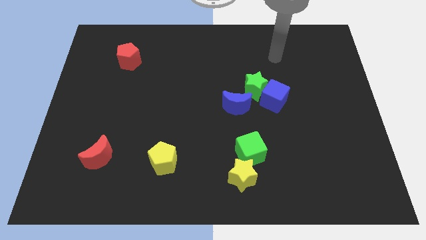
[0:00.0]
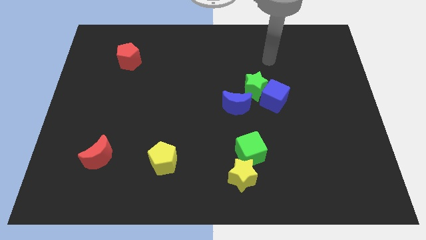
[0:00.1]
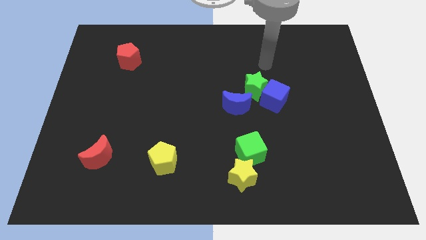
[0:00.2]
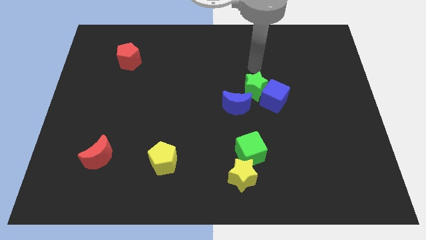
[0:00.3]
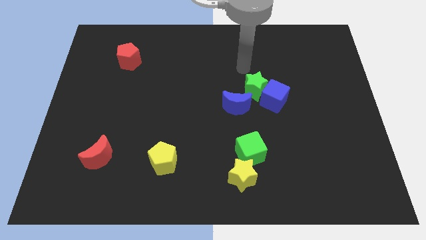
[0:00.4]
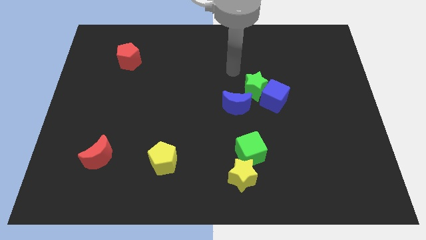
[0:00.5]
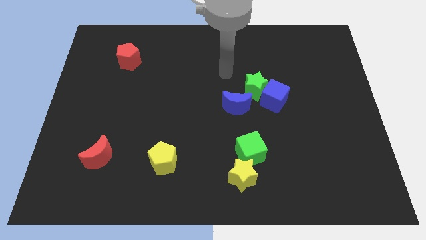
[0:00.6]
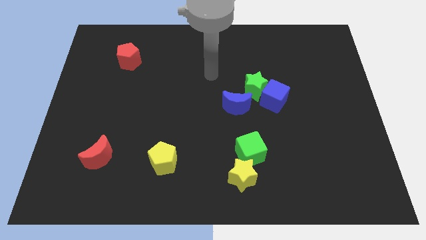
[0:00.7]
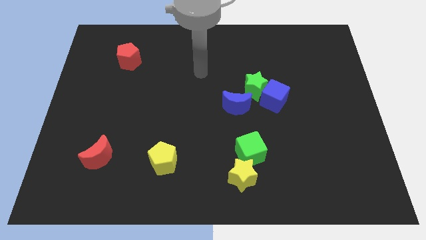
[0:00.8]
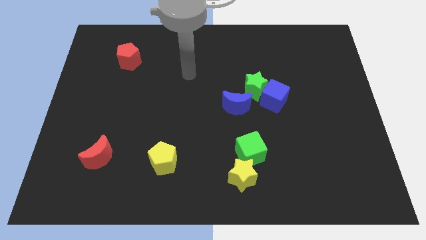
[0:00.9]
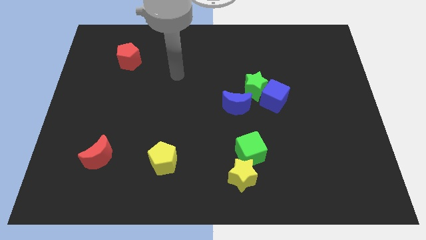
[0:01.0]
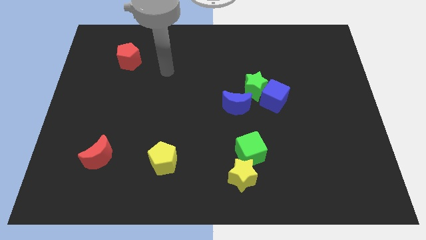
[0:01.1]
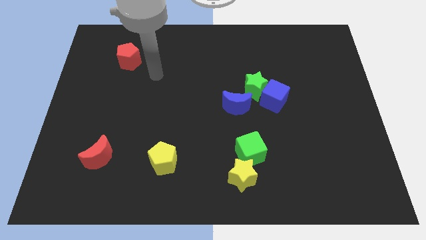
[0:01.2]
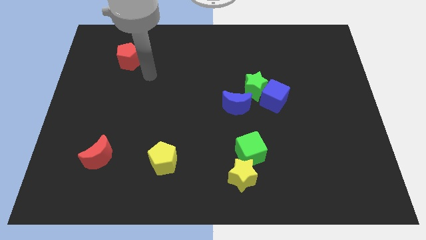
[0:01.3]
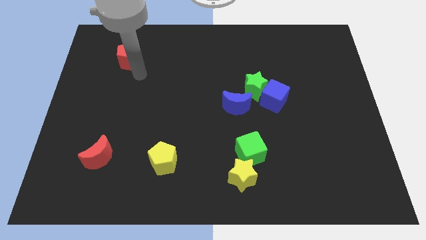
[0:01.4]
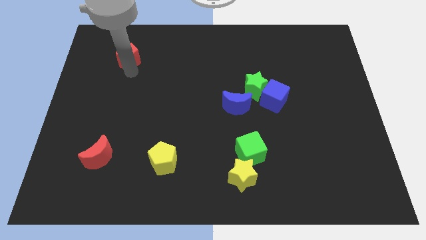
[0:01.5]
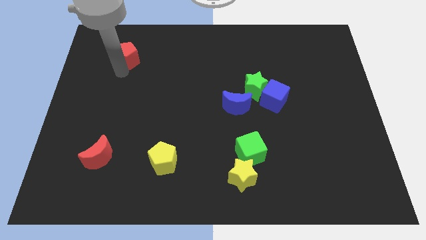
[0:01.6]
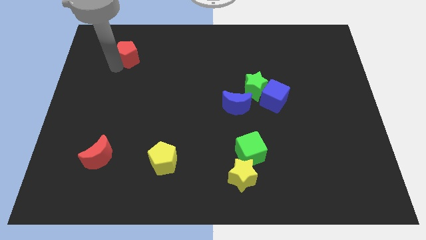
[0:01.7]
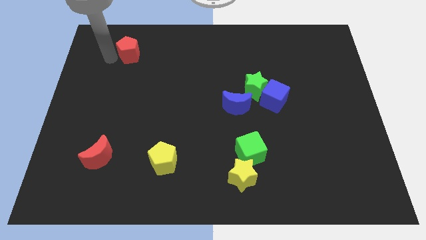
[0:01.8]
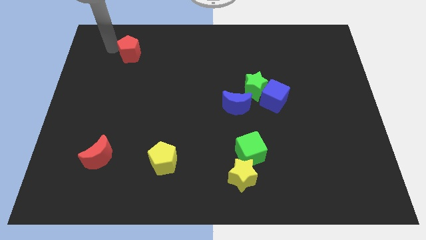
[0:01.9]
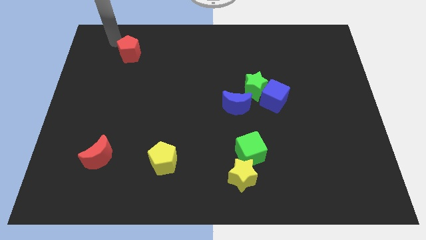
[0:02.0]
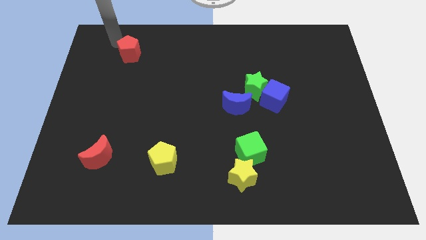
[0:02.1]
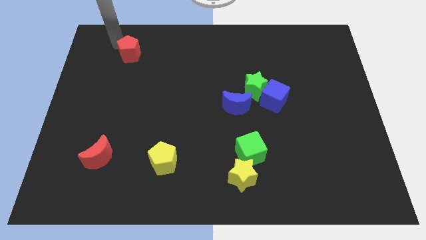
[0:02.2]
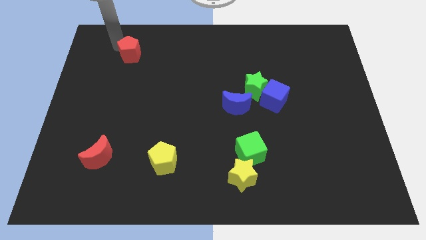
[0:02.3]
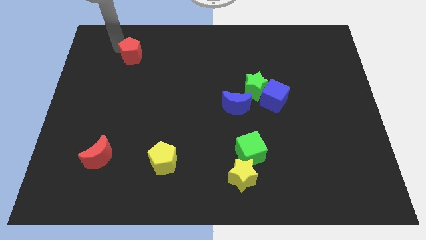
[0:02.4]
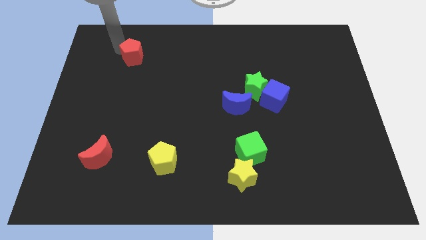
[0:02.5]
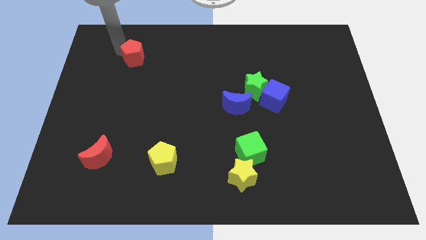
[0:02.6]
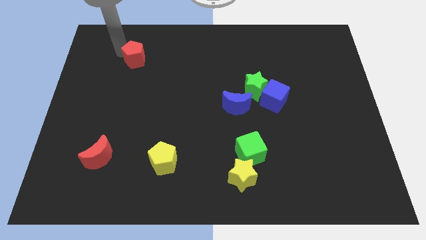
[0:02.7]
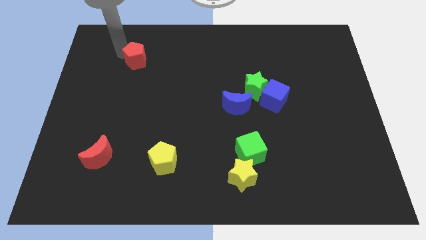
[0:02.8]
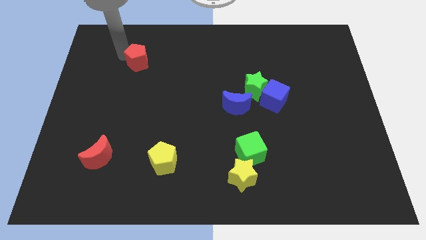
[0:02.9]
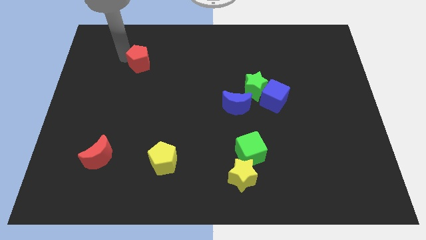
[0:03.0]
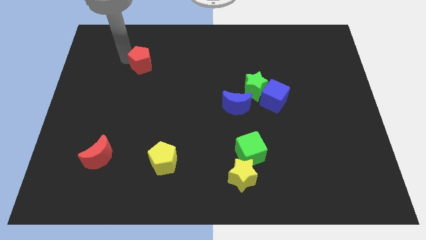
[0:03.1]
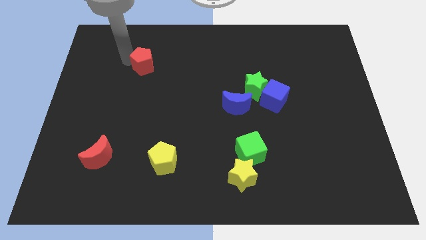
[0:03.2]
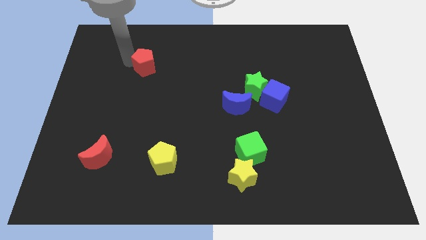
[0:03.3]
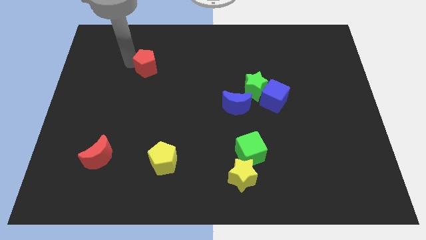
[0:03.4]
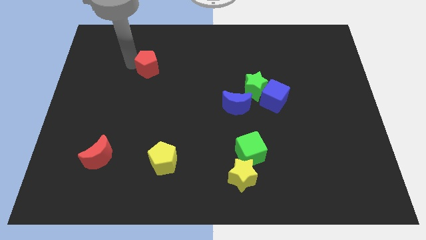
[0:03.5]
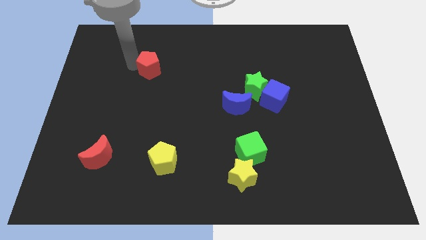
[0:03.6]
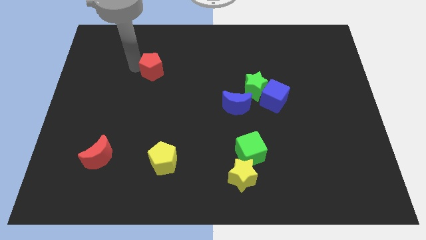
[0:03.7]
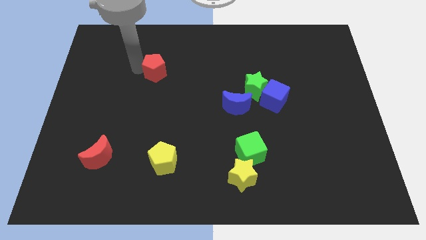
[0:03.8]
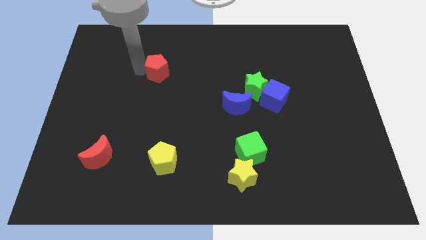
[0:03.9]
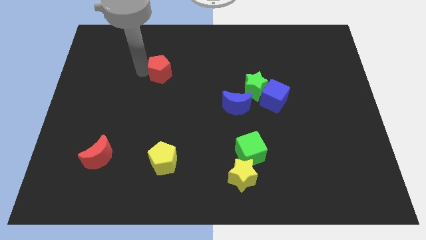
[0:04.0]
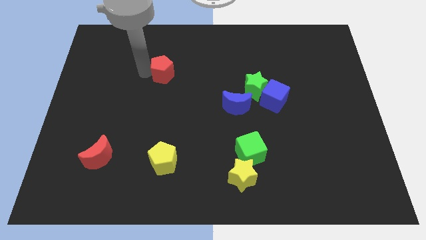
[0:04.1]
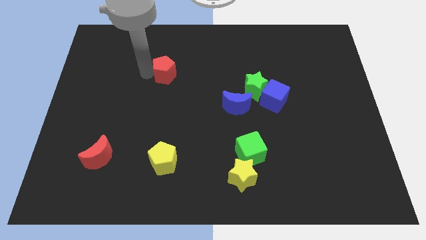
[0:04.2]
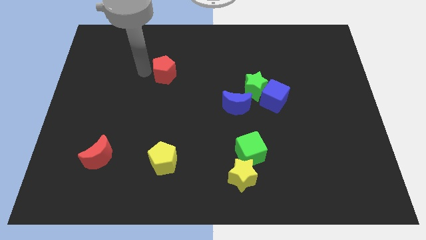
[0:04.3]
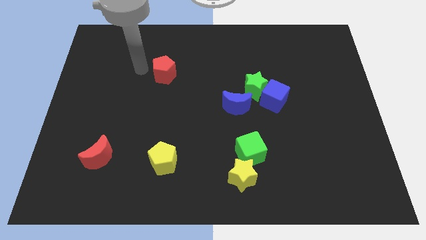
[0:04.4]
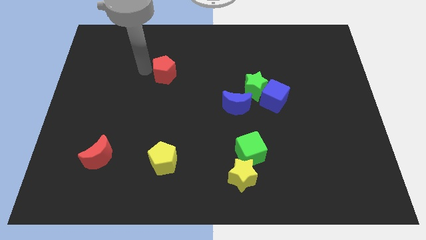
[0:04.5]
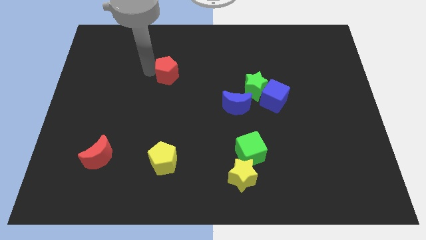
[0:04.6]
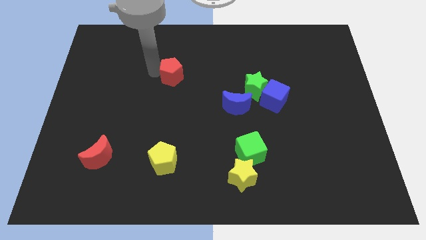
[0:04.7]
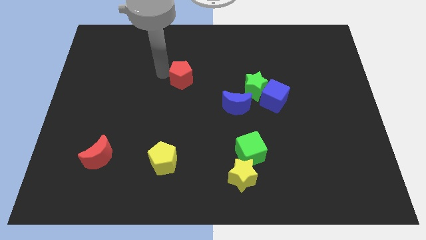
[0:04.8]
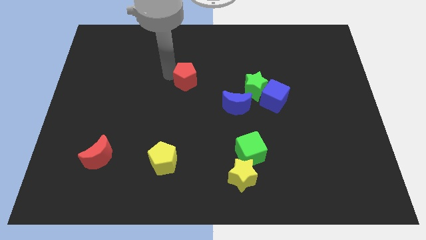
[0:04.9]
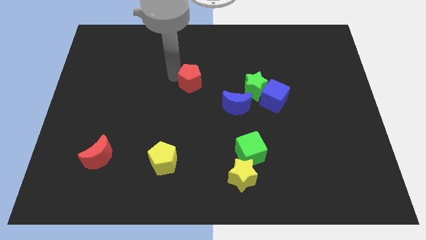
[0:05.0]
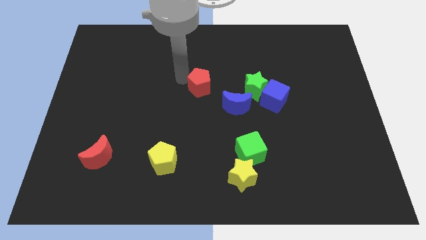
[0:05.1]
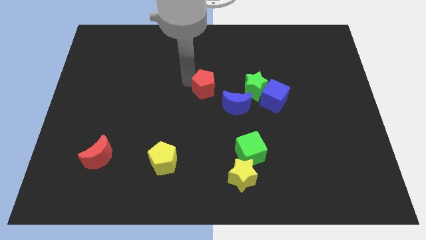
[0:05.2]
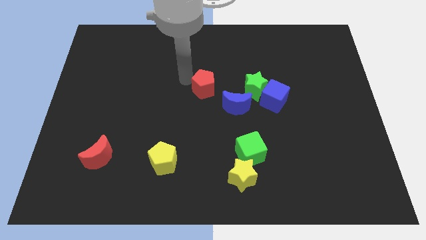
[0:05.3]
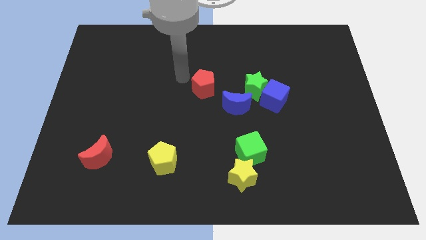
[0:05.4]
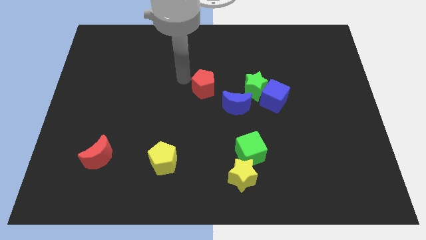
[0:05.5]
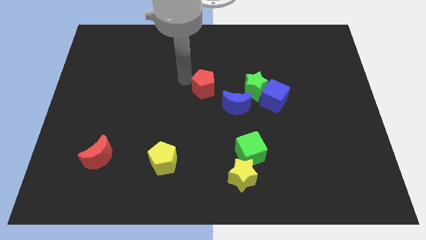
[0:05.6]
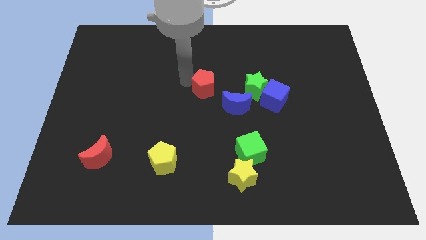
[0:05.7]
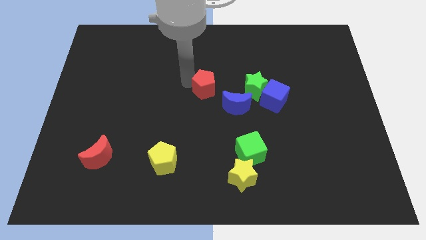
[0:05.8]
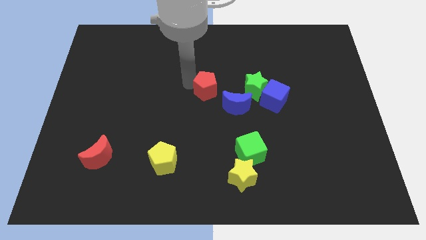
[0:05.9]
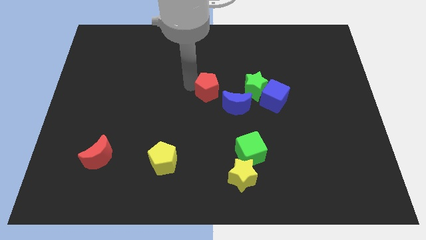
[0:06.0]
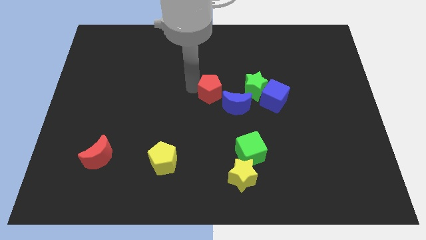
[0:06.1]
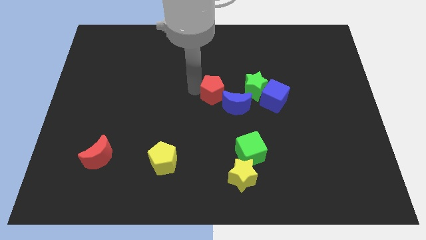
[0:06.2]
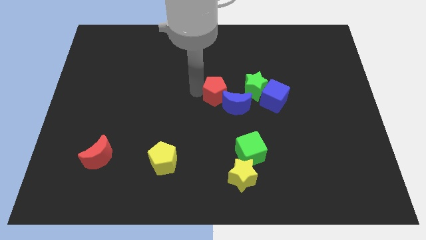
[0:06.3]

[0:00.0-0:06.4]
push the red pentagon to the blue moon

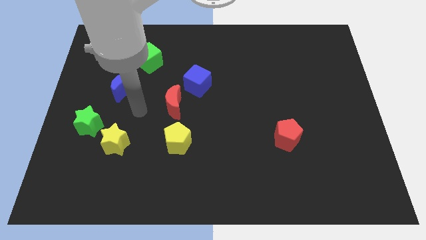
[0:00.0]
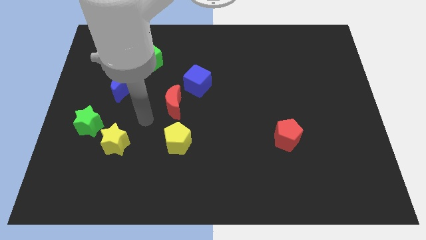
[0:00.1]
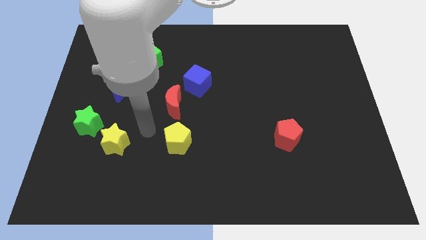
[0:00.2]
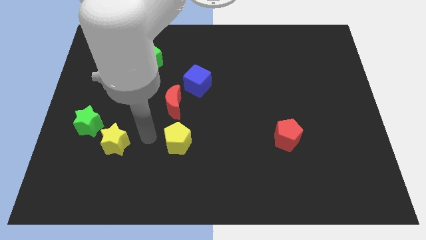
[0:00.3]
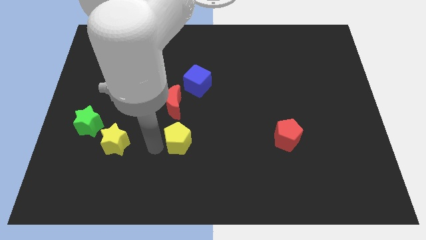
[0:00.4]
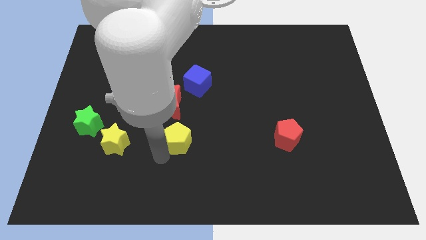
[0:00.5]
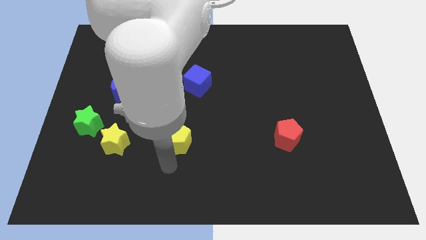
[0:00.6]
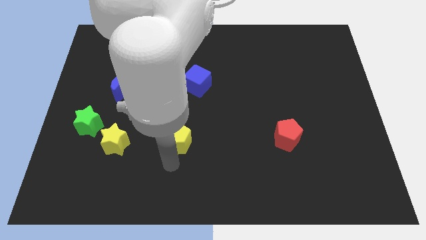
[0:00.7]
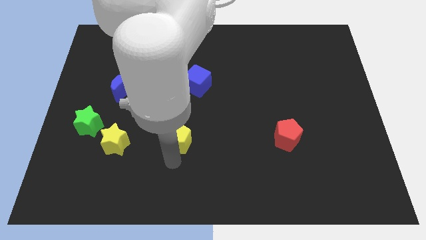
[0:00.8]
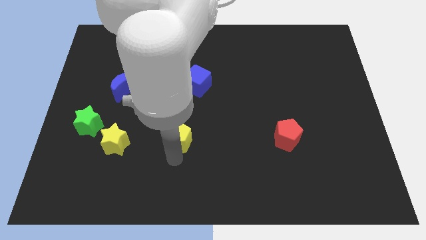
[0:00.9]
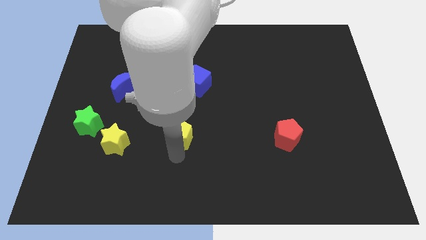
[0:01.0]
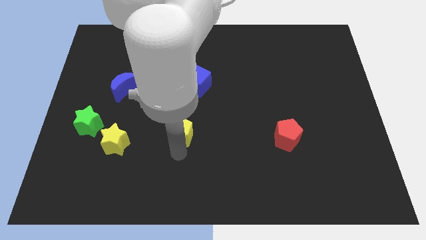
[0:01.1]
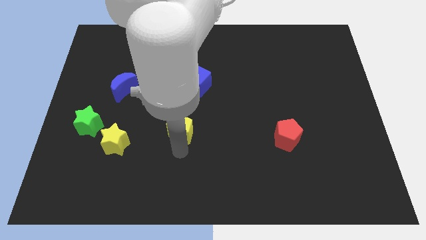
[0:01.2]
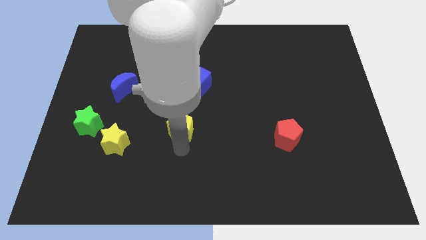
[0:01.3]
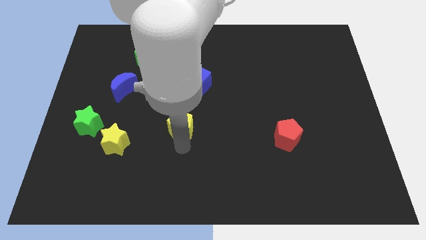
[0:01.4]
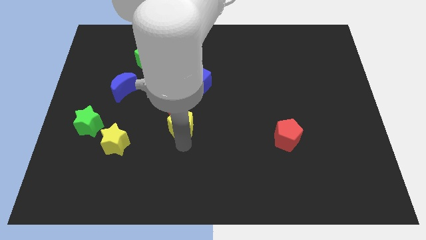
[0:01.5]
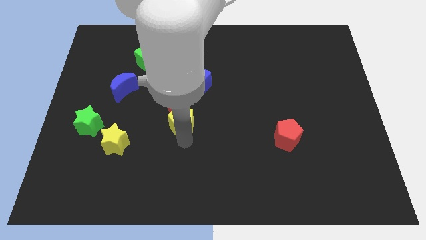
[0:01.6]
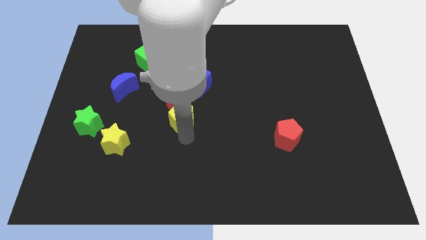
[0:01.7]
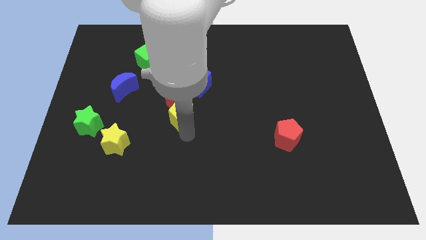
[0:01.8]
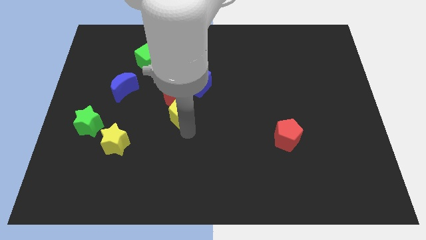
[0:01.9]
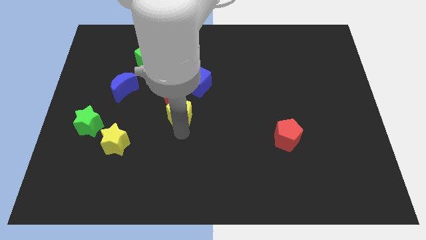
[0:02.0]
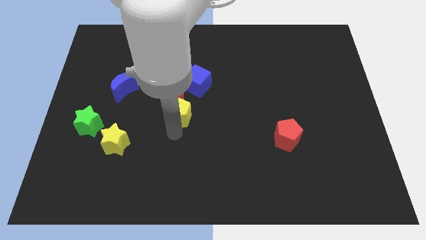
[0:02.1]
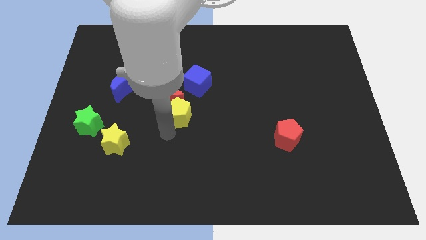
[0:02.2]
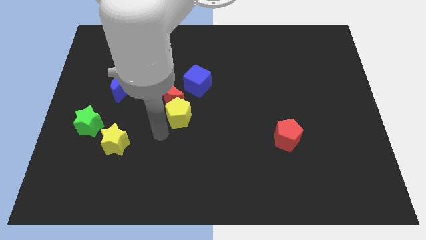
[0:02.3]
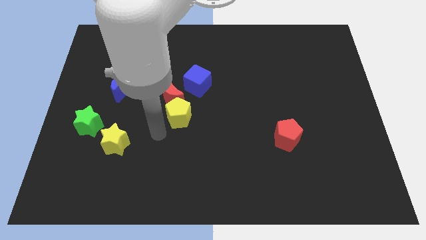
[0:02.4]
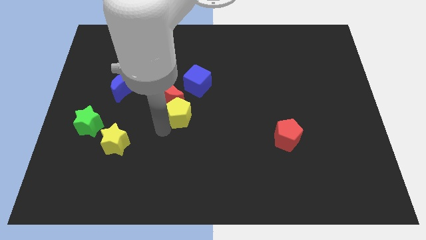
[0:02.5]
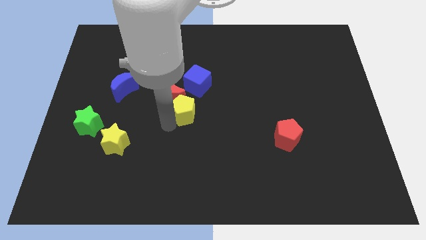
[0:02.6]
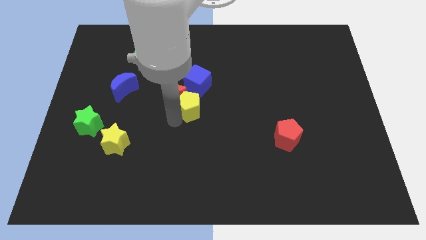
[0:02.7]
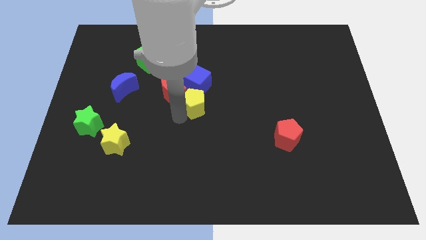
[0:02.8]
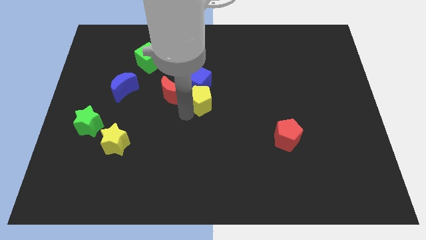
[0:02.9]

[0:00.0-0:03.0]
slide the yellow pentagon to the blue cube
